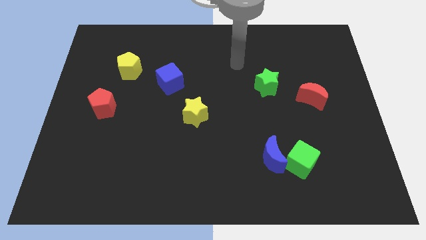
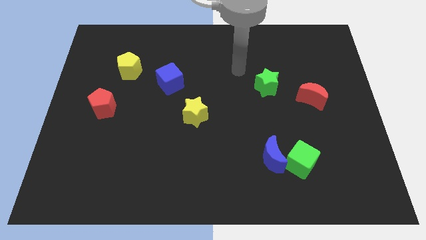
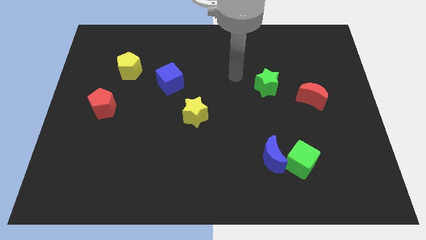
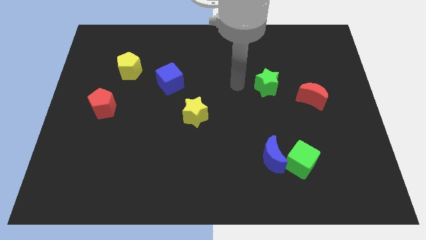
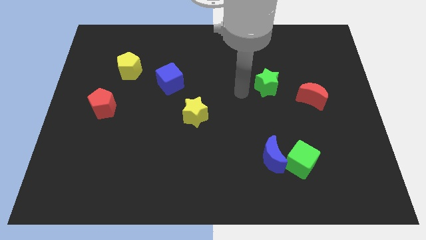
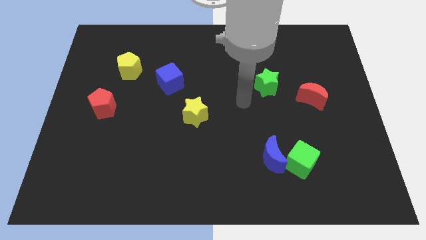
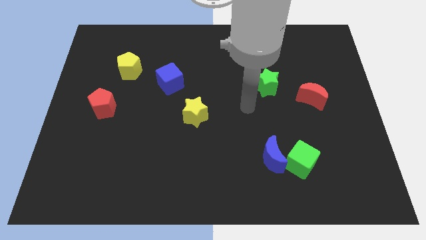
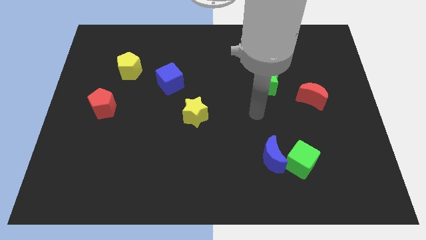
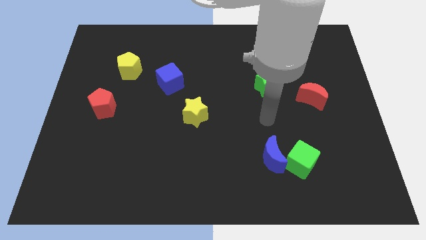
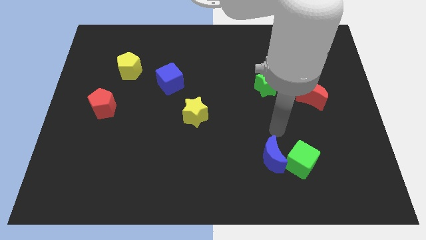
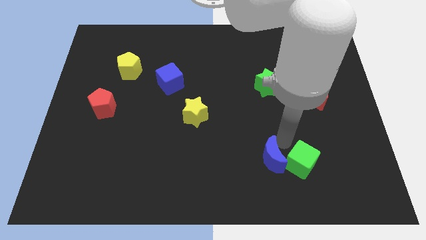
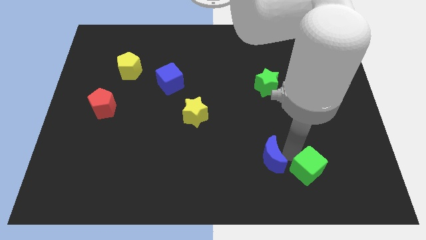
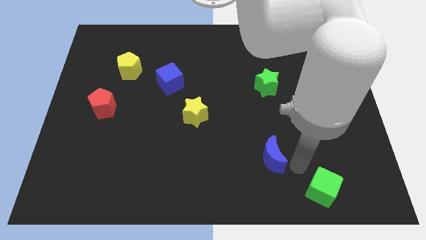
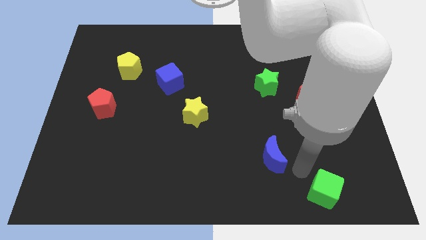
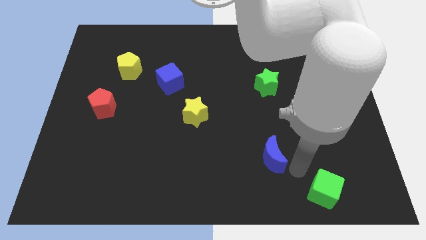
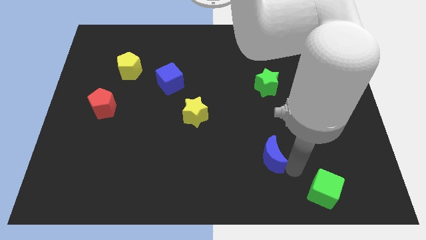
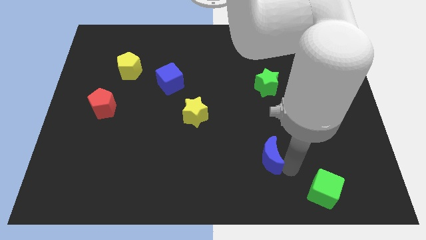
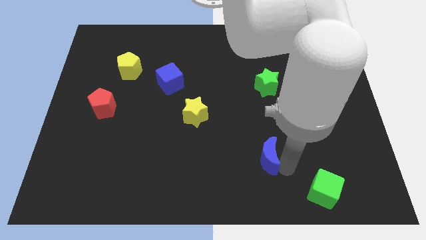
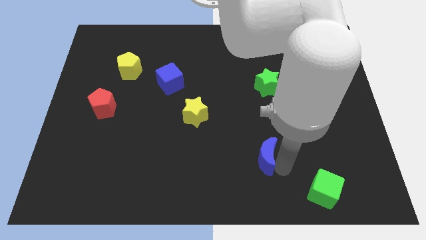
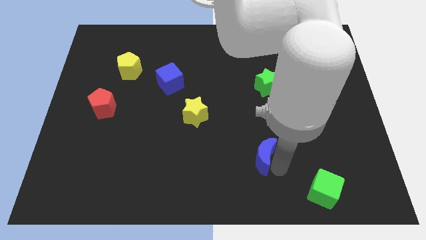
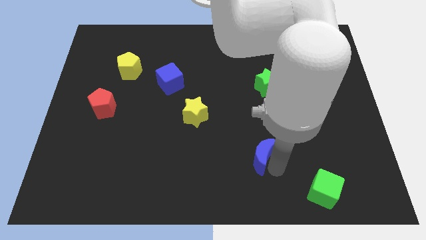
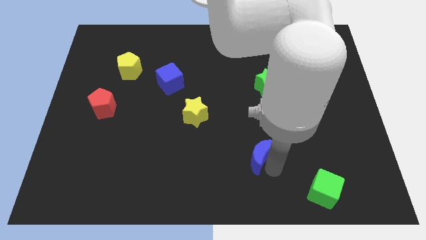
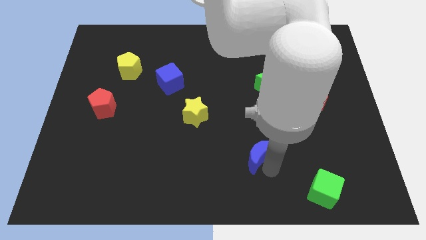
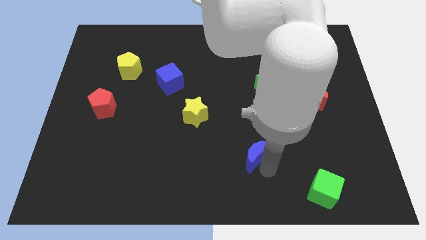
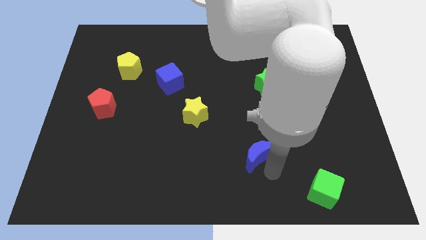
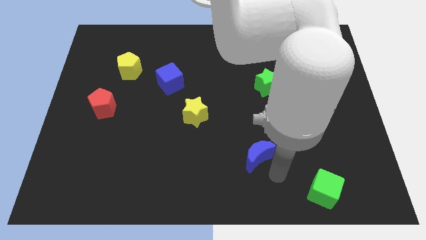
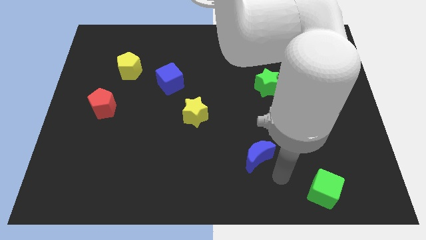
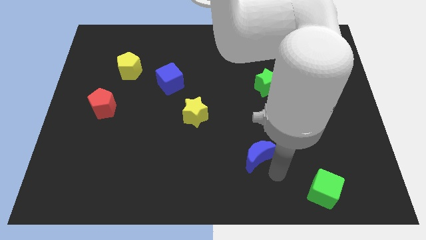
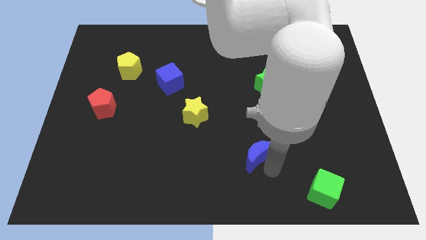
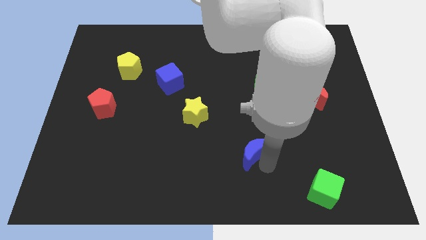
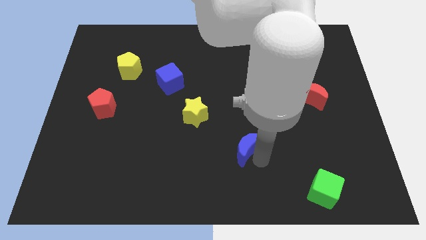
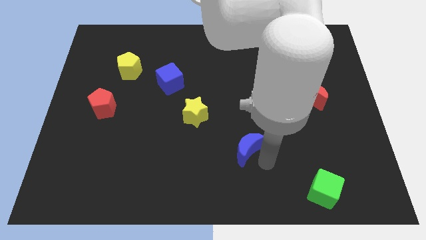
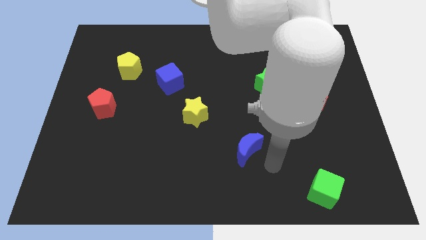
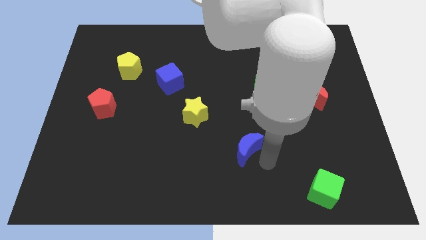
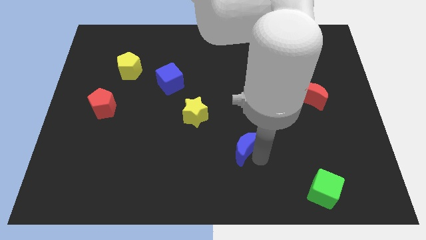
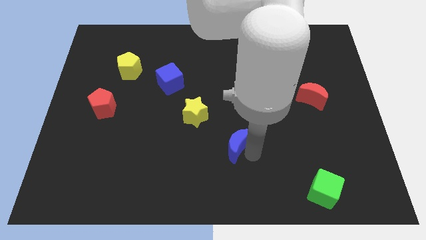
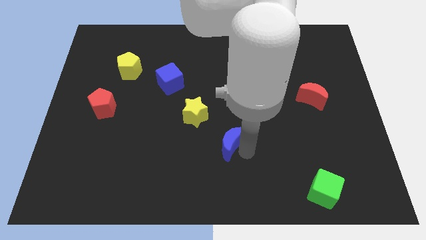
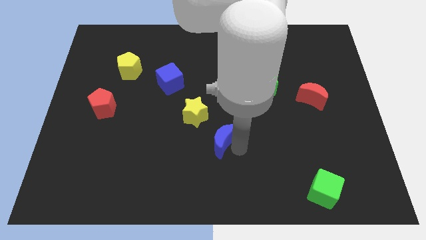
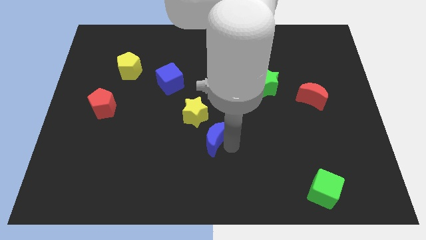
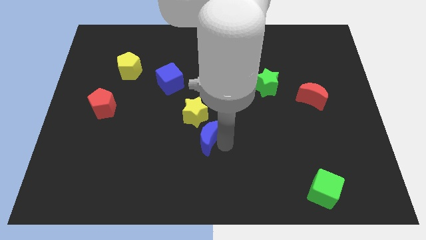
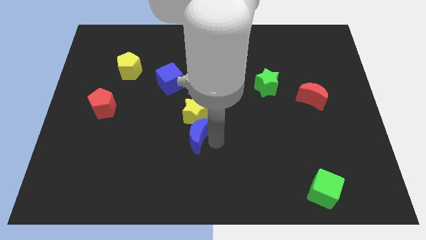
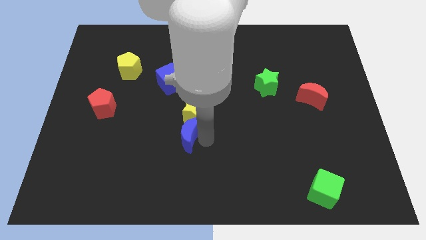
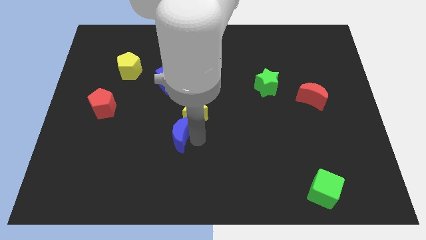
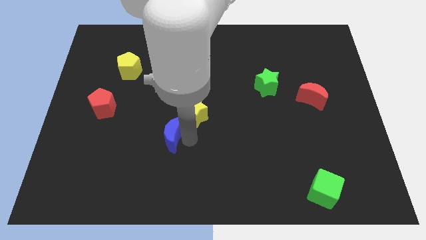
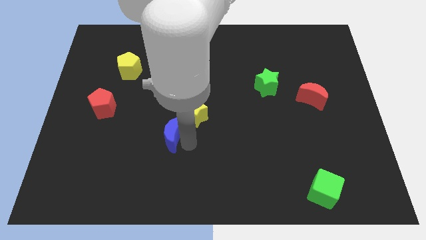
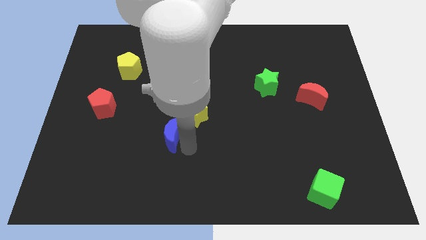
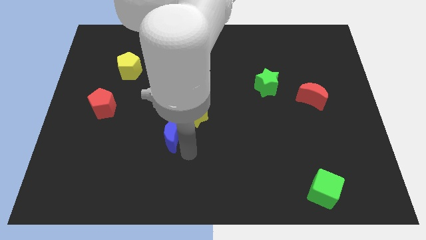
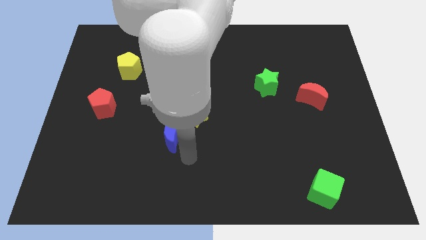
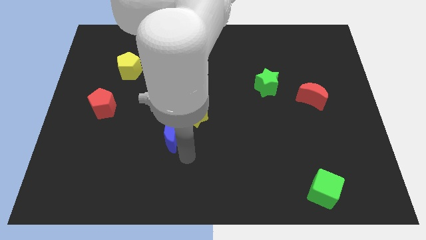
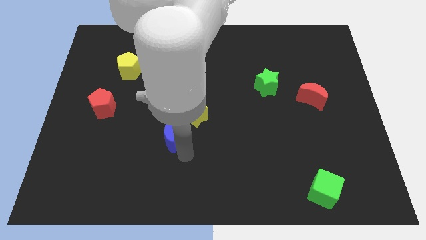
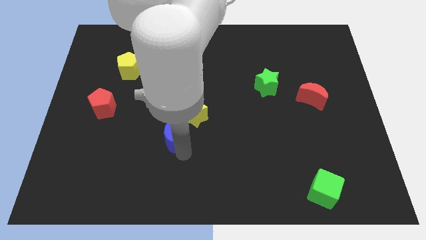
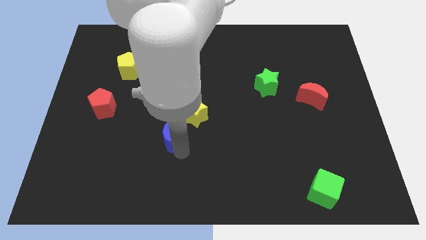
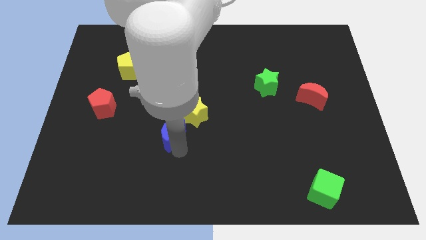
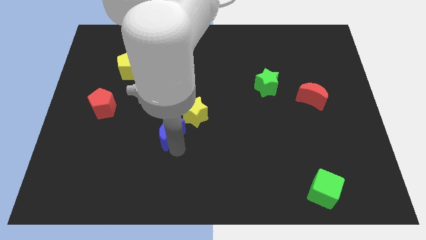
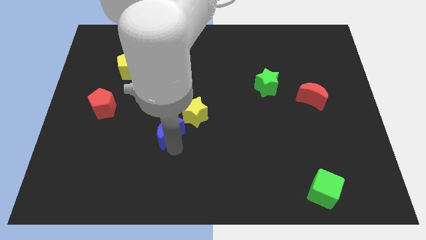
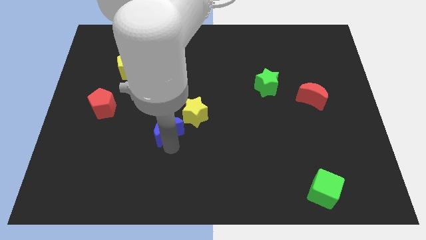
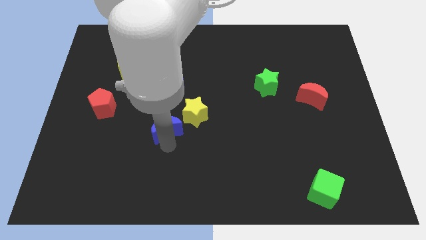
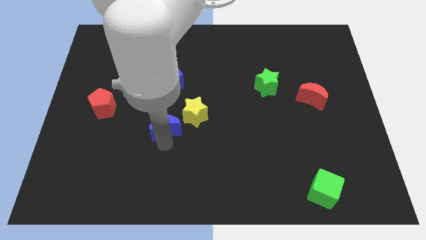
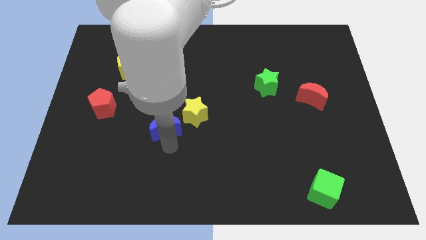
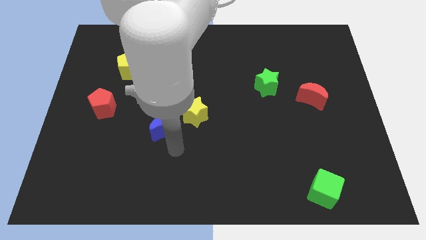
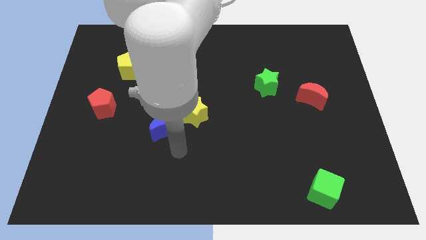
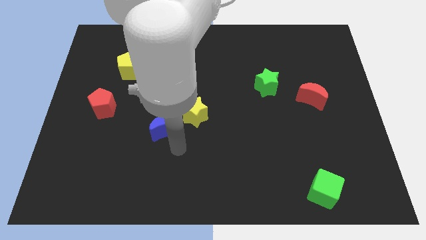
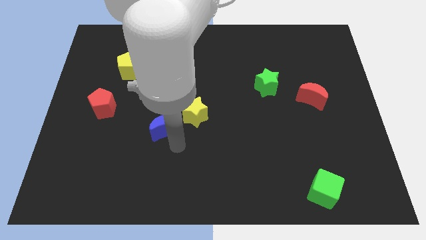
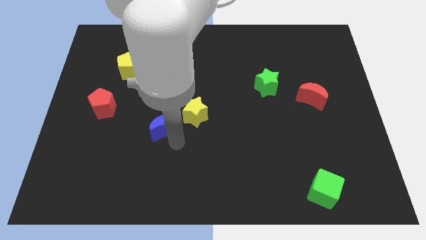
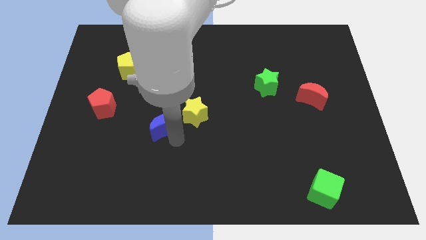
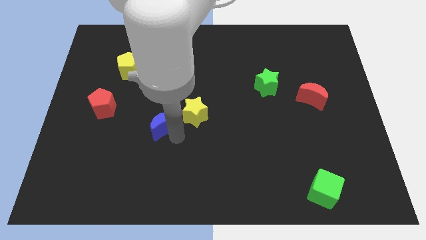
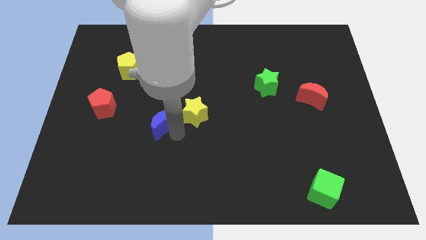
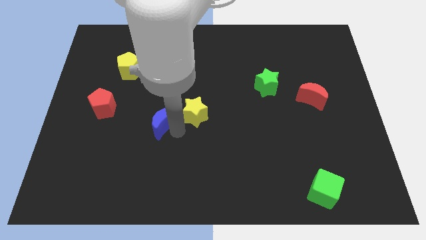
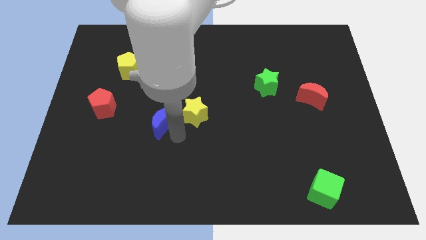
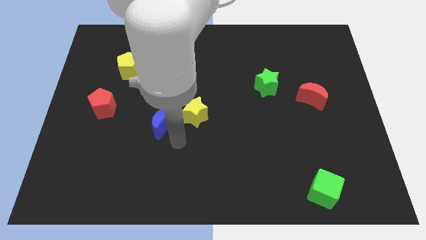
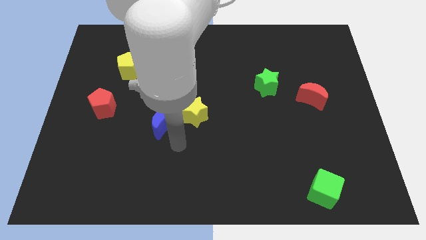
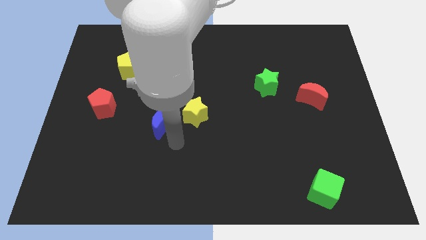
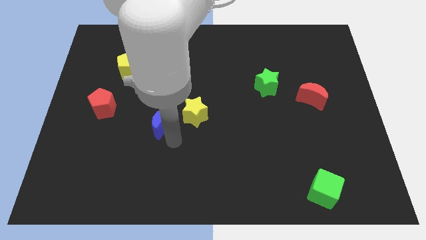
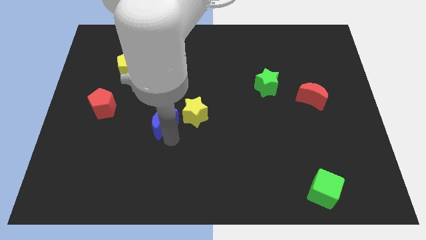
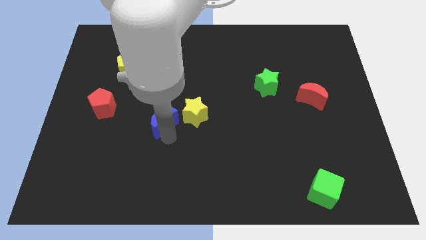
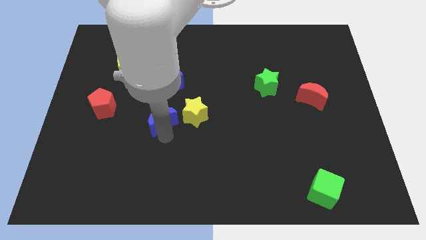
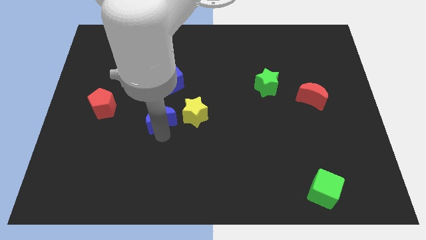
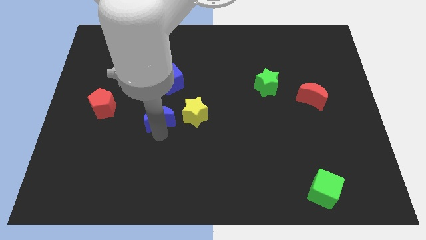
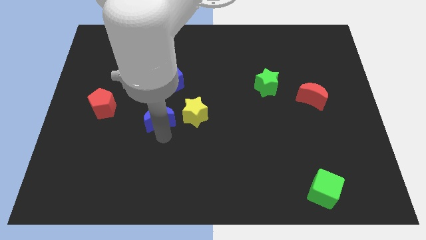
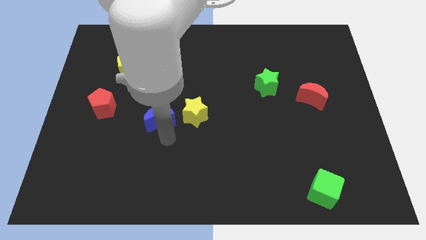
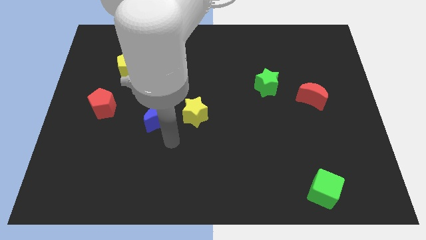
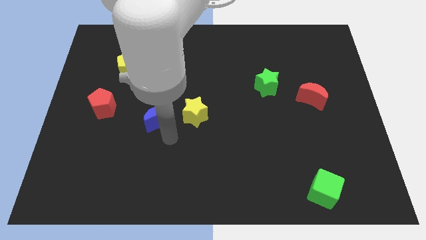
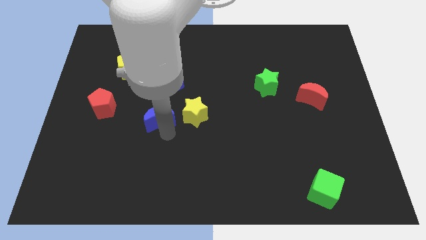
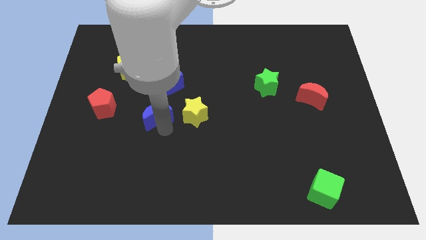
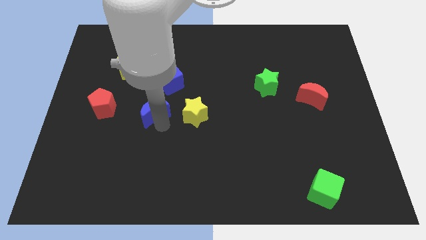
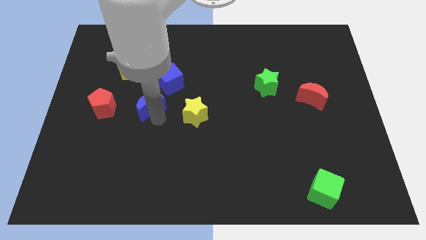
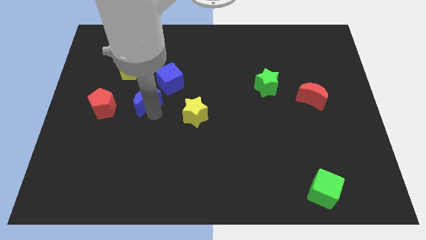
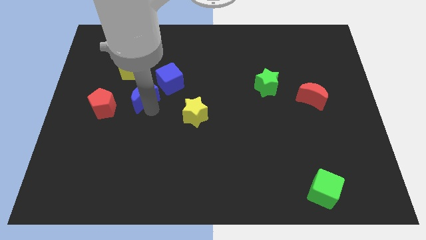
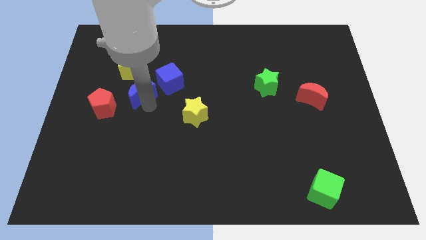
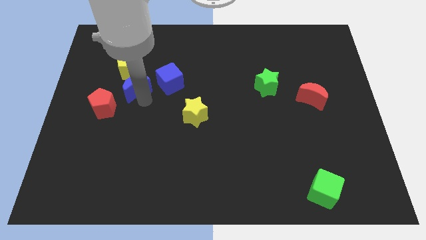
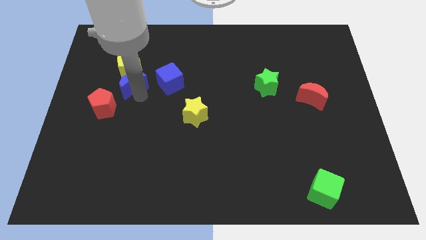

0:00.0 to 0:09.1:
slide the blue moon to the yellow pentagon
